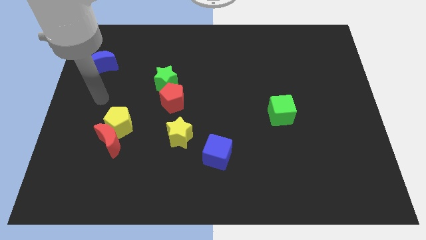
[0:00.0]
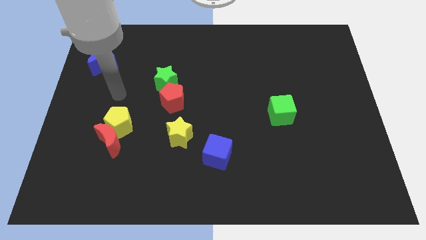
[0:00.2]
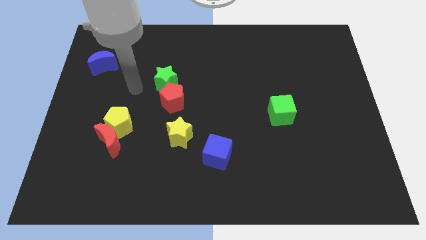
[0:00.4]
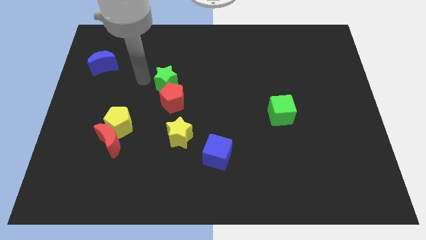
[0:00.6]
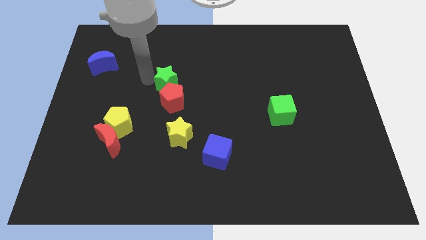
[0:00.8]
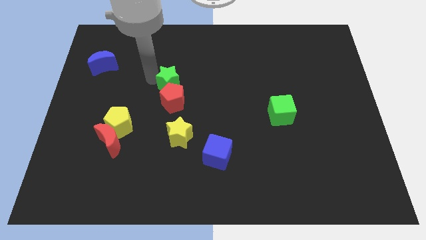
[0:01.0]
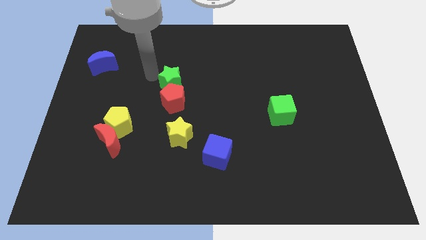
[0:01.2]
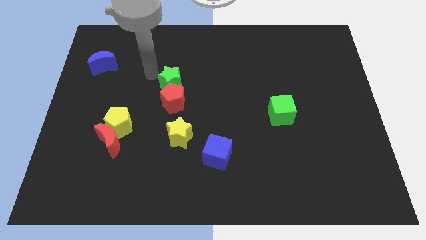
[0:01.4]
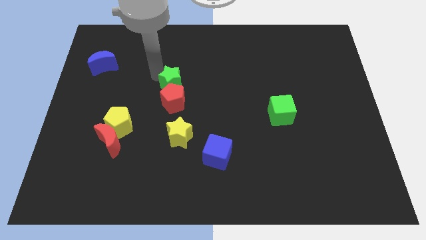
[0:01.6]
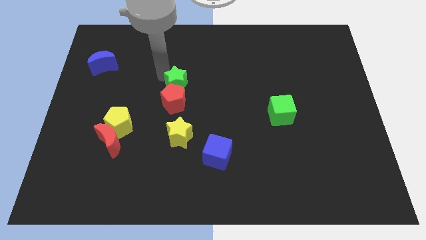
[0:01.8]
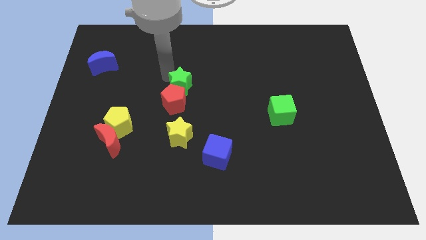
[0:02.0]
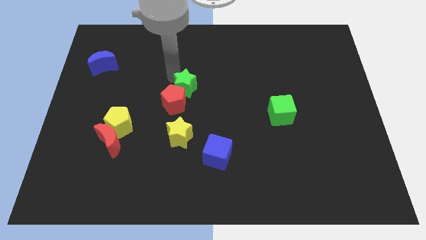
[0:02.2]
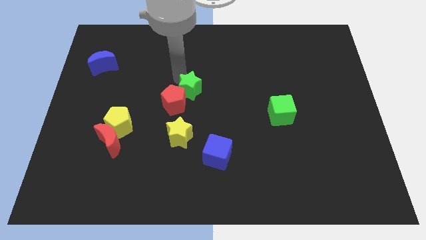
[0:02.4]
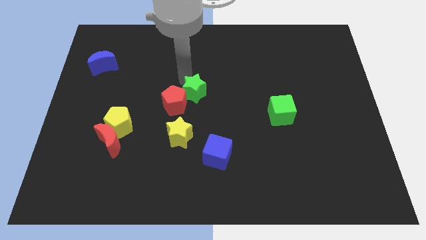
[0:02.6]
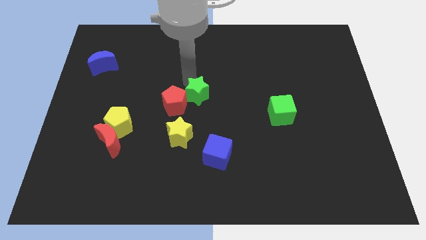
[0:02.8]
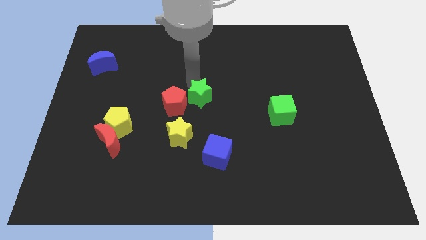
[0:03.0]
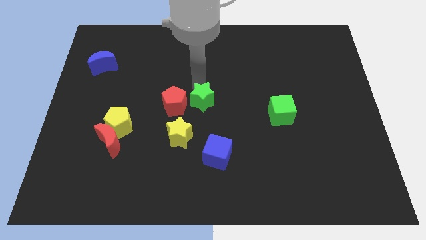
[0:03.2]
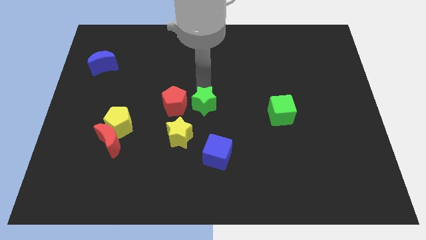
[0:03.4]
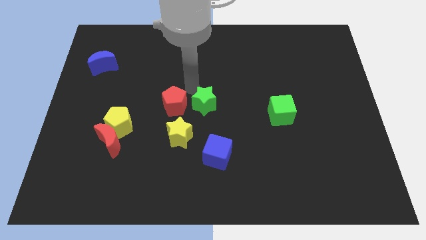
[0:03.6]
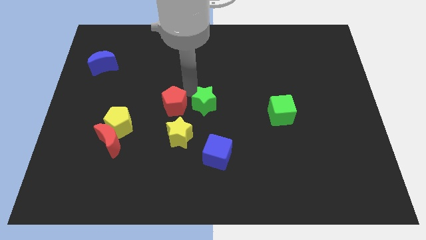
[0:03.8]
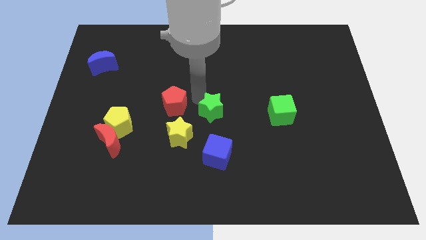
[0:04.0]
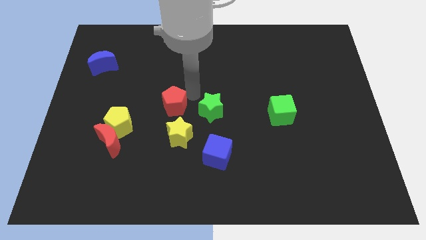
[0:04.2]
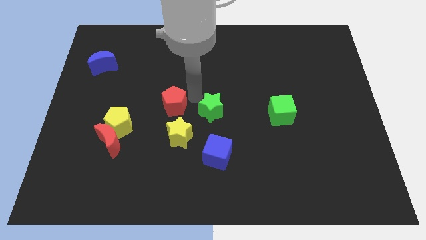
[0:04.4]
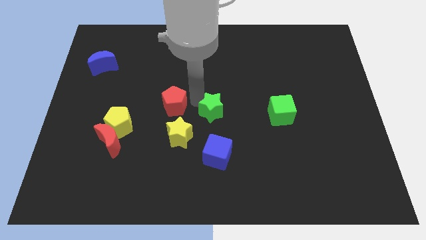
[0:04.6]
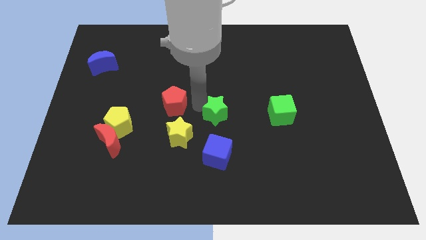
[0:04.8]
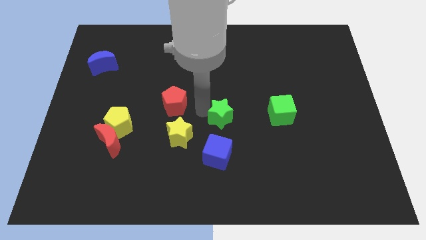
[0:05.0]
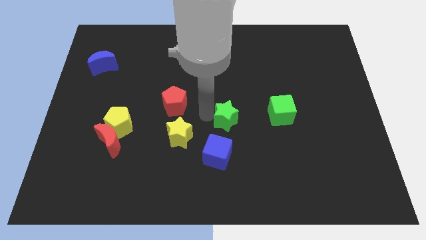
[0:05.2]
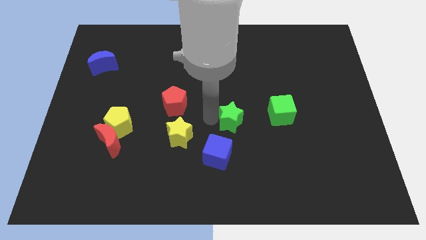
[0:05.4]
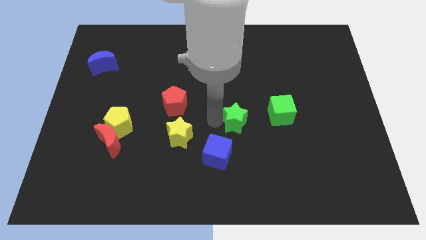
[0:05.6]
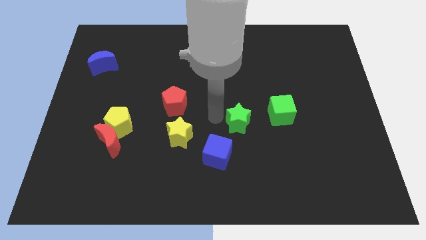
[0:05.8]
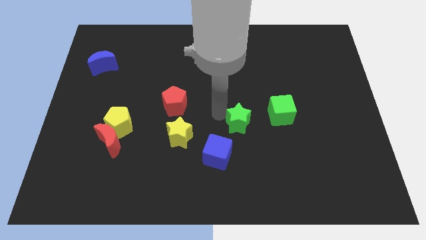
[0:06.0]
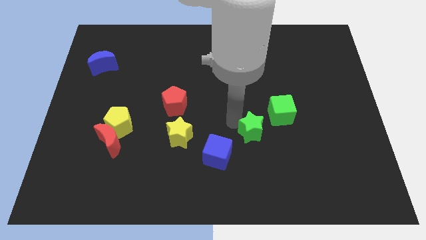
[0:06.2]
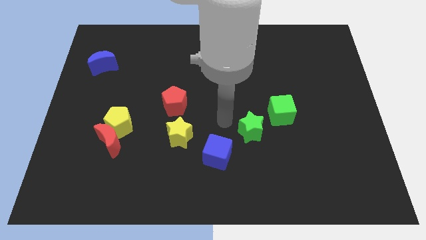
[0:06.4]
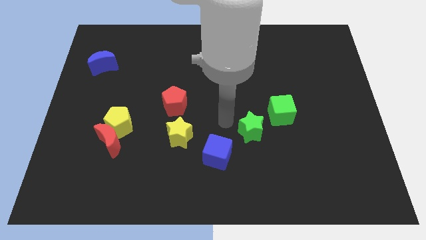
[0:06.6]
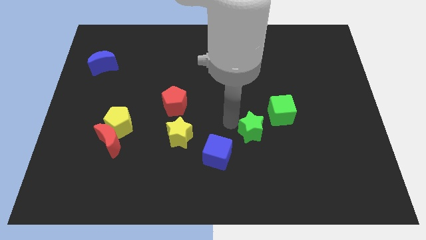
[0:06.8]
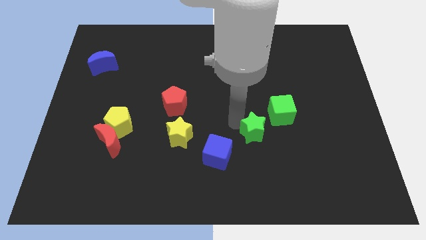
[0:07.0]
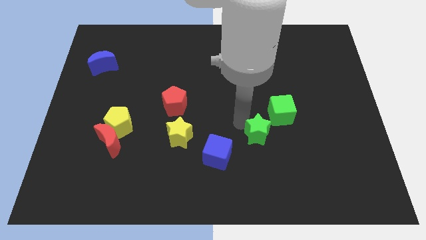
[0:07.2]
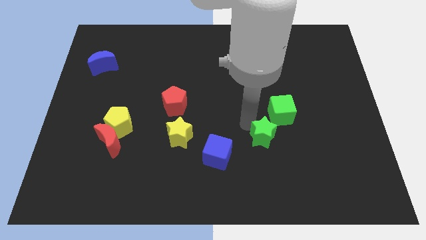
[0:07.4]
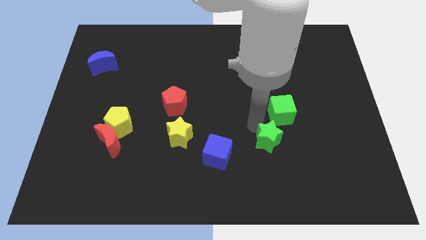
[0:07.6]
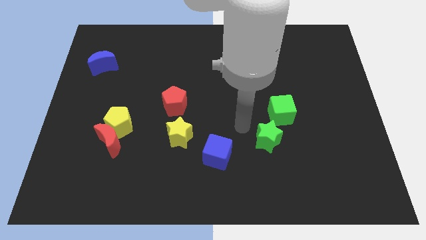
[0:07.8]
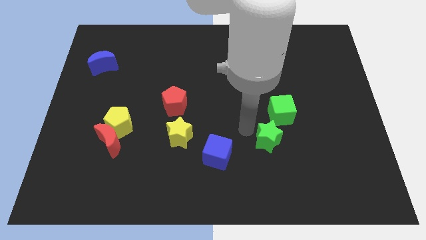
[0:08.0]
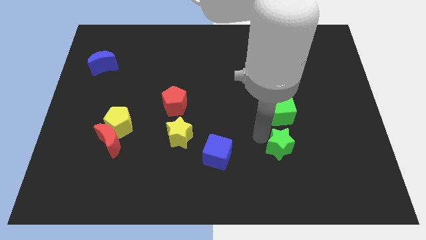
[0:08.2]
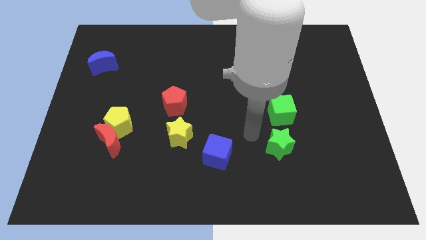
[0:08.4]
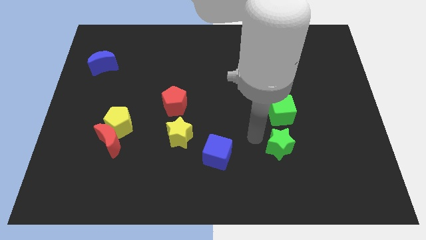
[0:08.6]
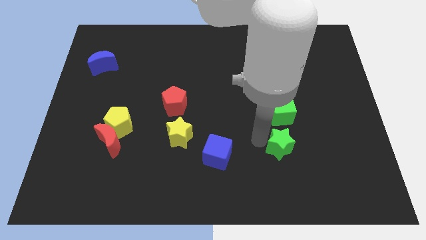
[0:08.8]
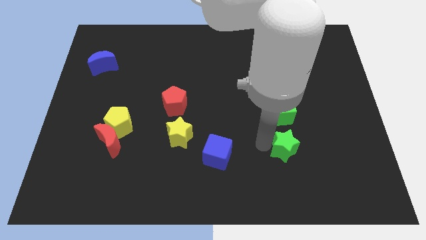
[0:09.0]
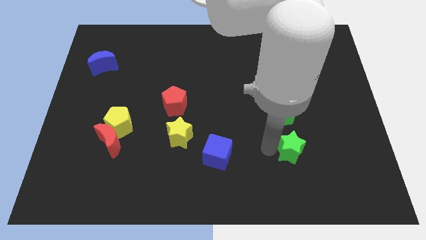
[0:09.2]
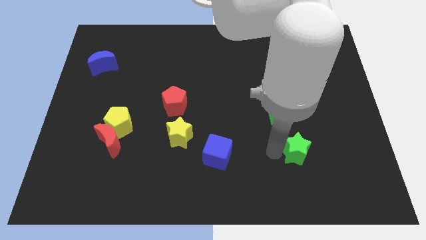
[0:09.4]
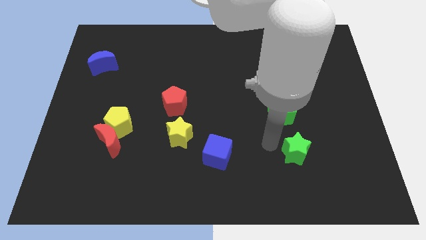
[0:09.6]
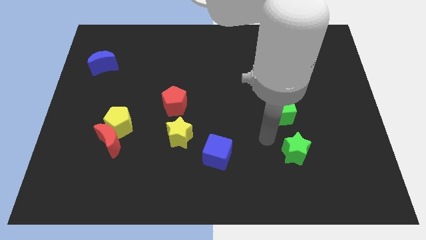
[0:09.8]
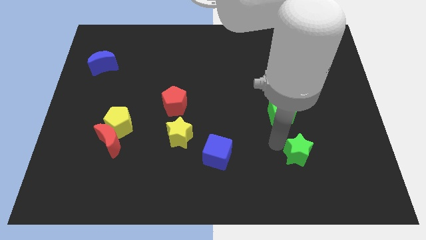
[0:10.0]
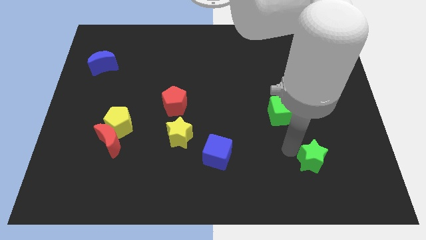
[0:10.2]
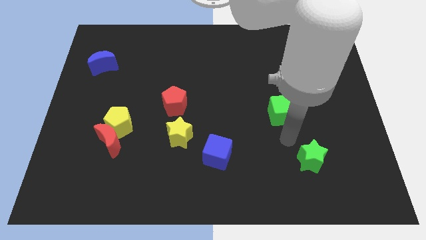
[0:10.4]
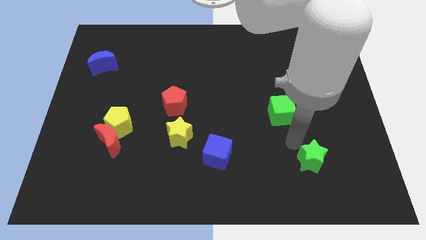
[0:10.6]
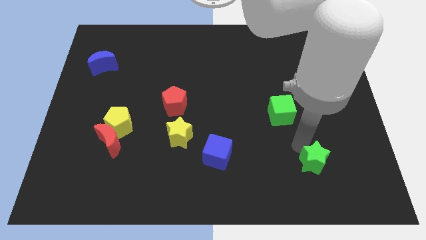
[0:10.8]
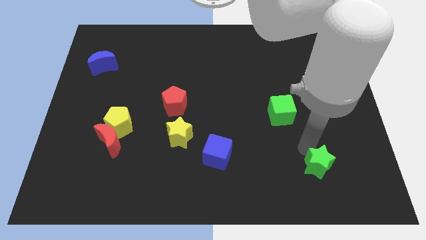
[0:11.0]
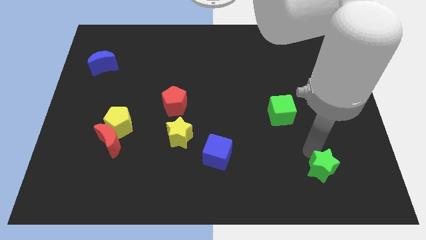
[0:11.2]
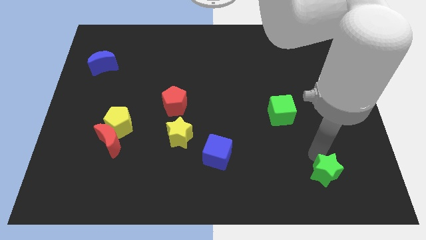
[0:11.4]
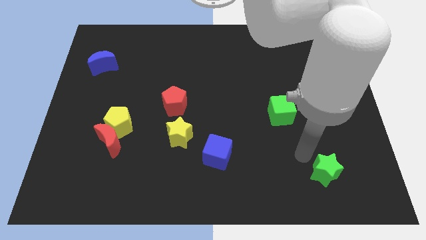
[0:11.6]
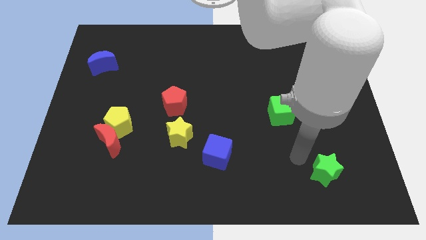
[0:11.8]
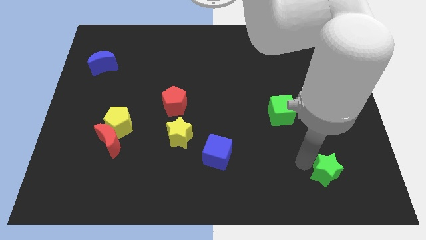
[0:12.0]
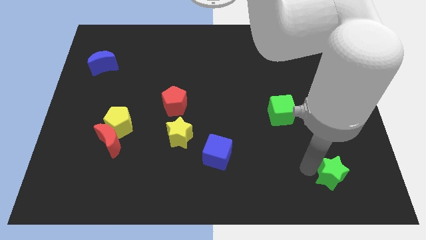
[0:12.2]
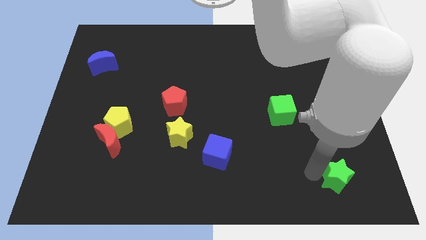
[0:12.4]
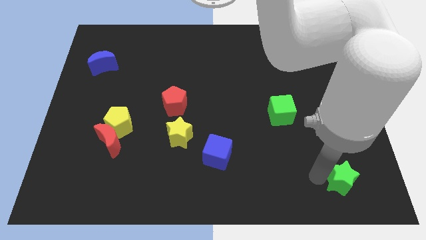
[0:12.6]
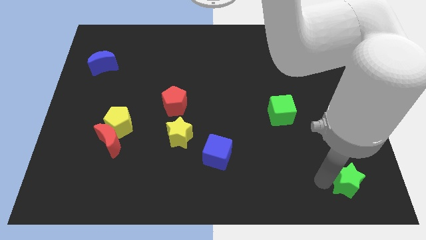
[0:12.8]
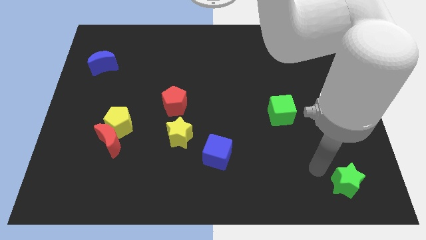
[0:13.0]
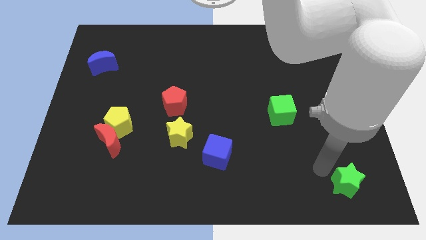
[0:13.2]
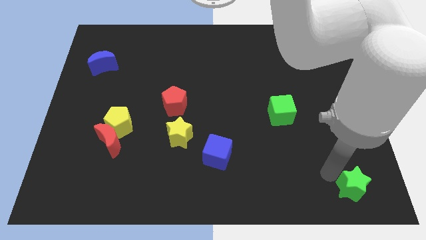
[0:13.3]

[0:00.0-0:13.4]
slide the green star to the lower right corner
